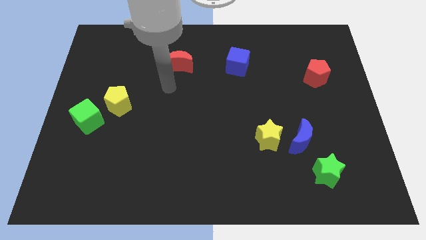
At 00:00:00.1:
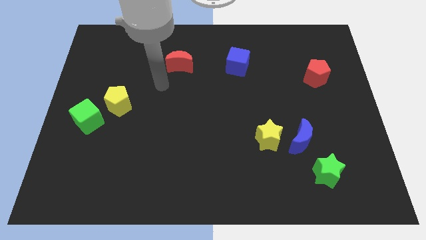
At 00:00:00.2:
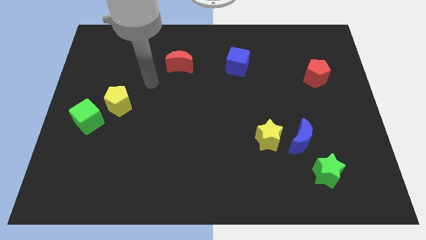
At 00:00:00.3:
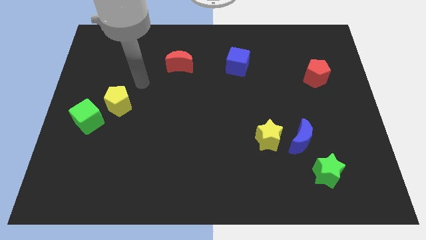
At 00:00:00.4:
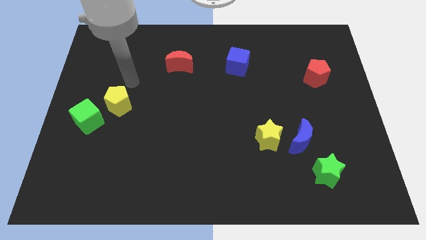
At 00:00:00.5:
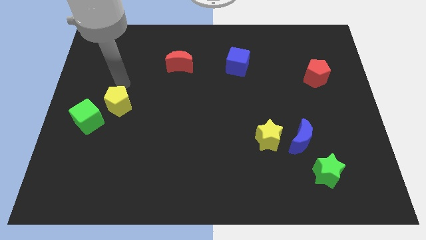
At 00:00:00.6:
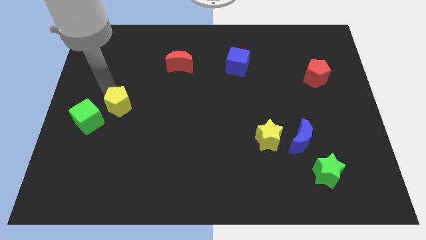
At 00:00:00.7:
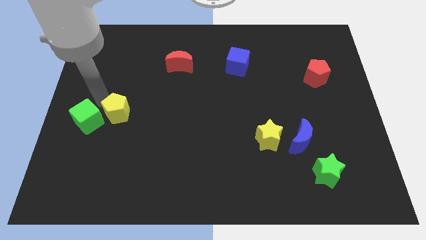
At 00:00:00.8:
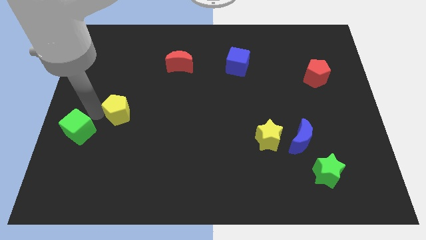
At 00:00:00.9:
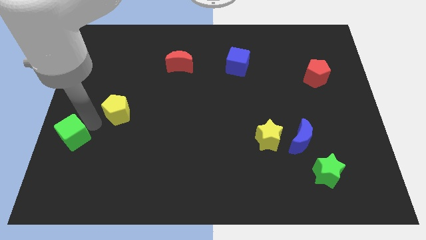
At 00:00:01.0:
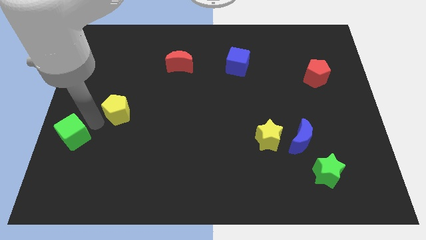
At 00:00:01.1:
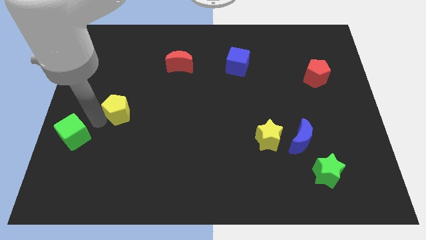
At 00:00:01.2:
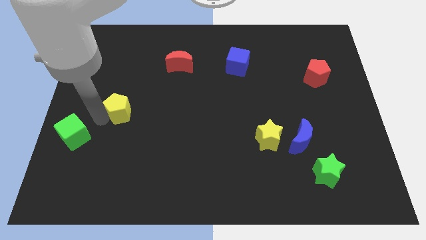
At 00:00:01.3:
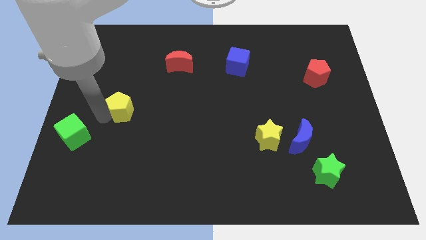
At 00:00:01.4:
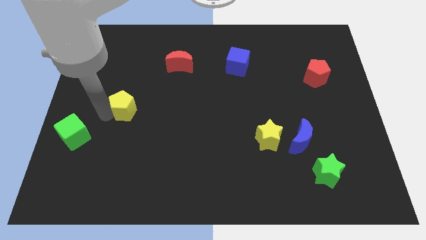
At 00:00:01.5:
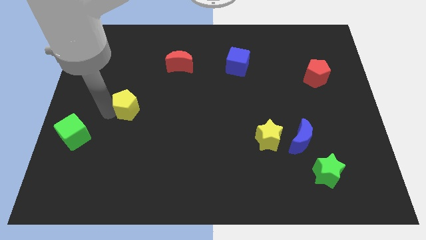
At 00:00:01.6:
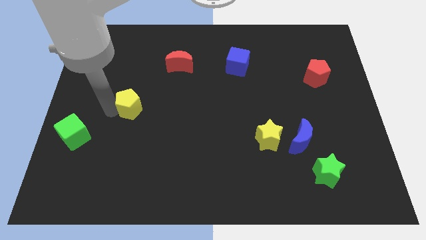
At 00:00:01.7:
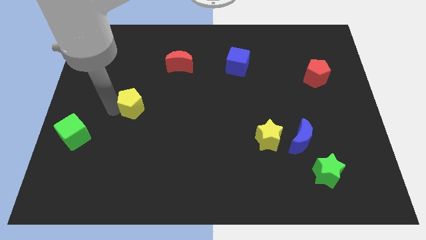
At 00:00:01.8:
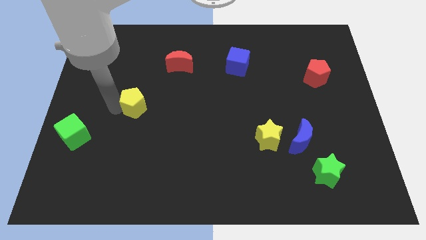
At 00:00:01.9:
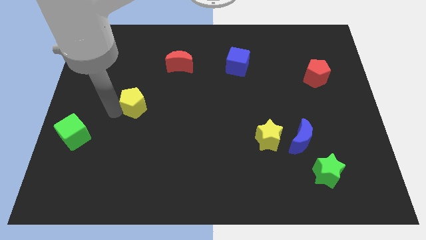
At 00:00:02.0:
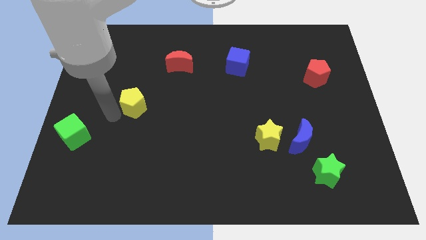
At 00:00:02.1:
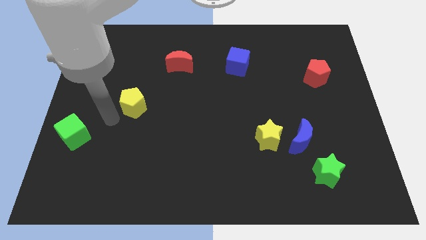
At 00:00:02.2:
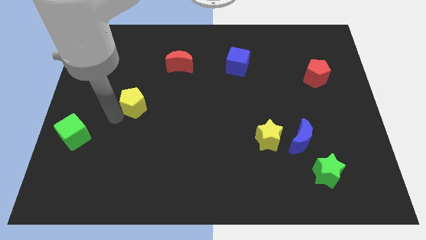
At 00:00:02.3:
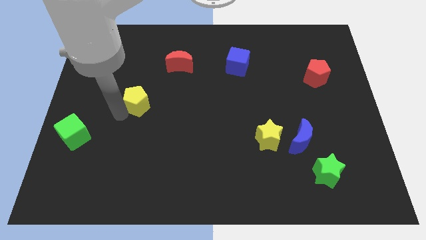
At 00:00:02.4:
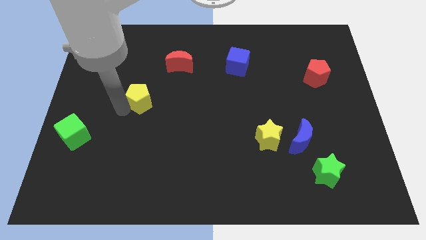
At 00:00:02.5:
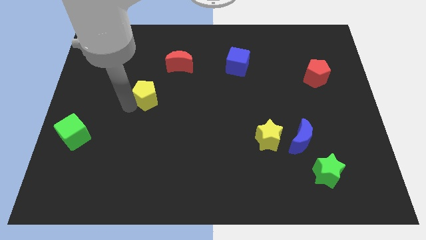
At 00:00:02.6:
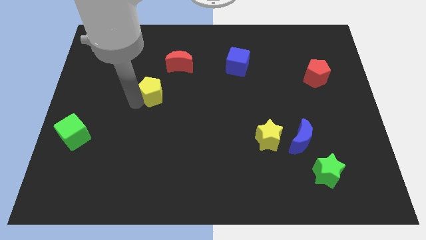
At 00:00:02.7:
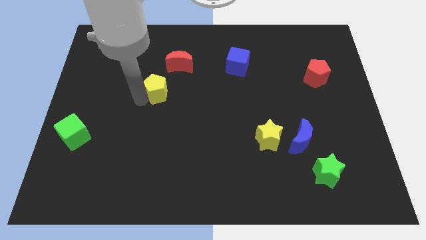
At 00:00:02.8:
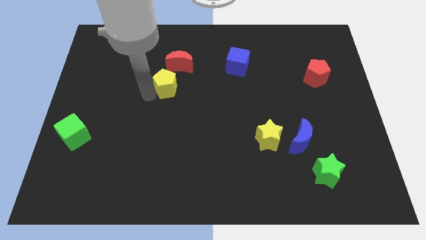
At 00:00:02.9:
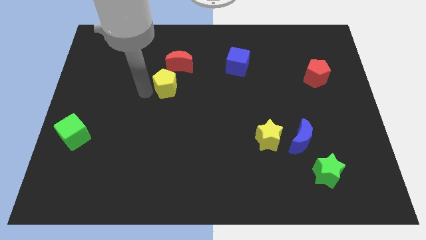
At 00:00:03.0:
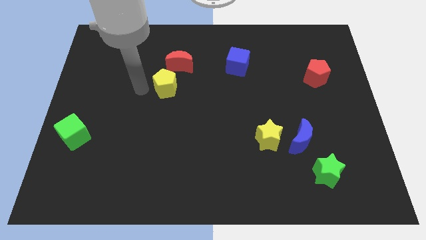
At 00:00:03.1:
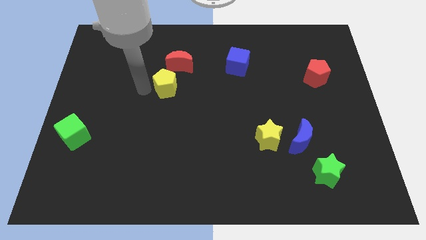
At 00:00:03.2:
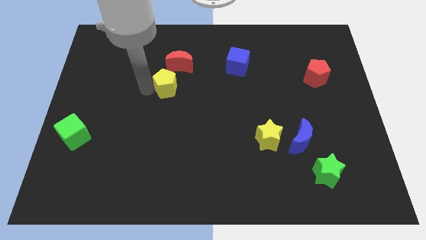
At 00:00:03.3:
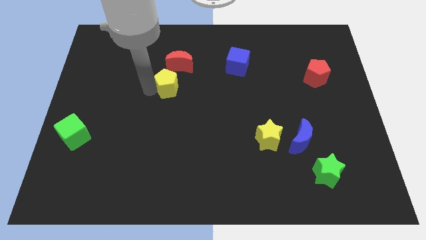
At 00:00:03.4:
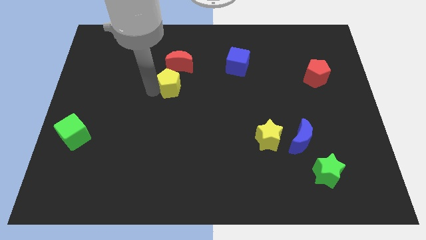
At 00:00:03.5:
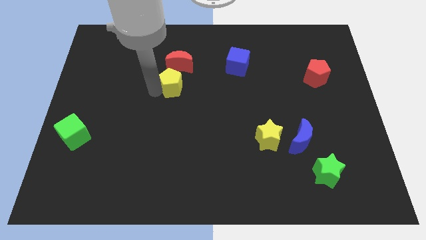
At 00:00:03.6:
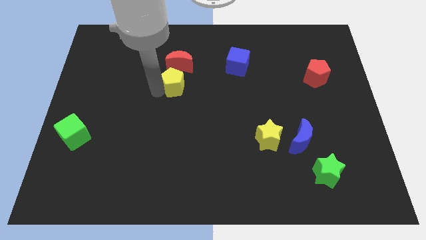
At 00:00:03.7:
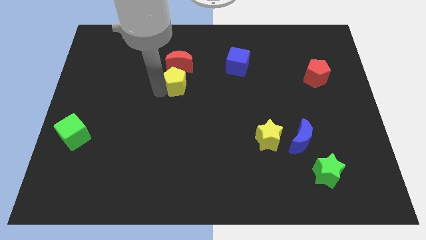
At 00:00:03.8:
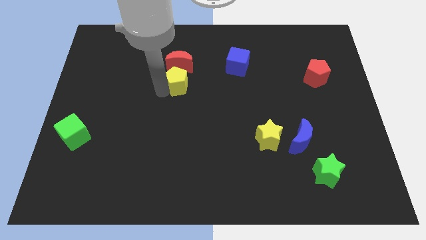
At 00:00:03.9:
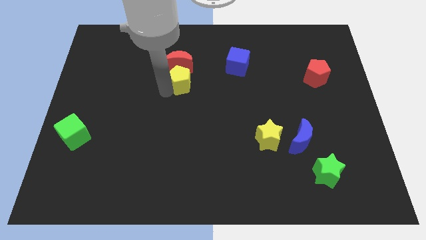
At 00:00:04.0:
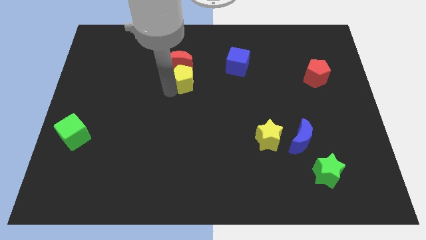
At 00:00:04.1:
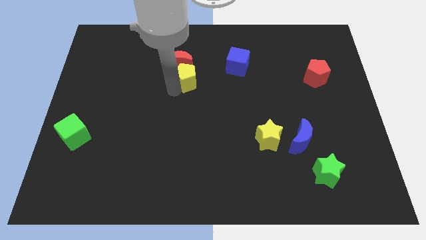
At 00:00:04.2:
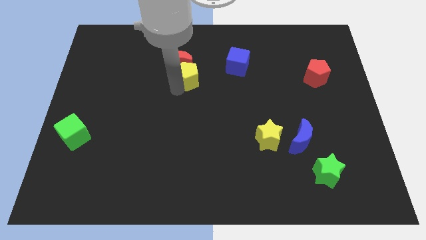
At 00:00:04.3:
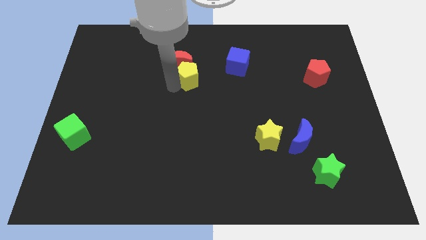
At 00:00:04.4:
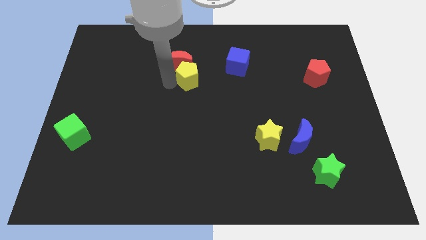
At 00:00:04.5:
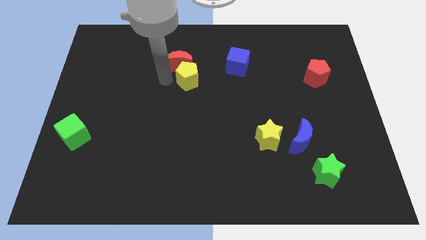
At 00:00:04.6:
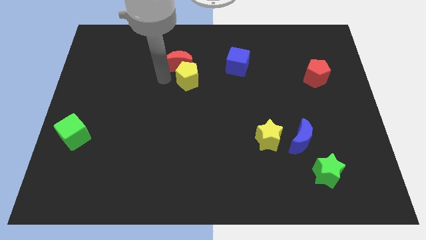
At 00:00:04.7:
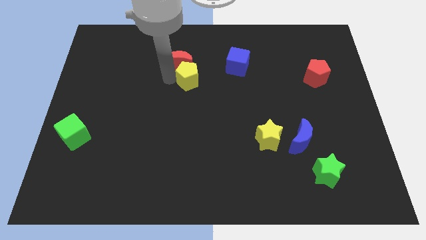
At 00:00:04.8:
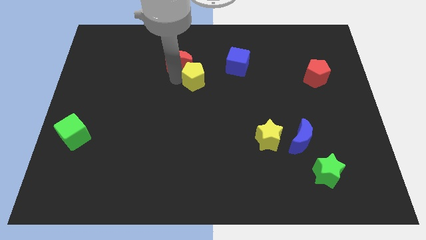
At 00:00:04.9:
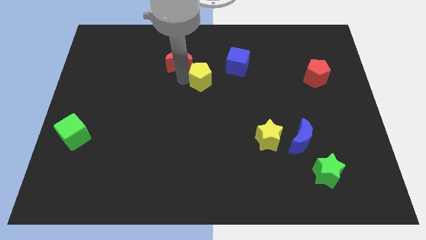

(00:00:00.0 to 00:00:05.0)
slide the yellow pentagon diagonally down and to the left of the blue cube

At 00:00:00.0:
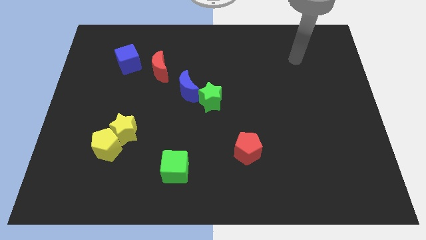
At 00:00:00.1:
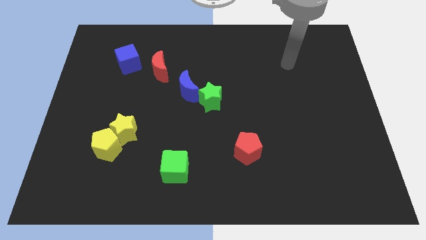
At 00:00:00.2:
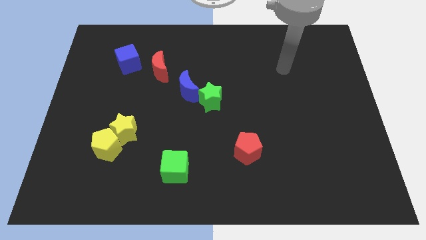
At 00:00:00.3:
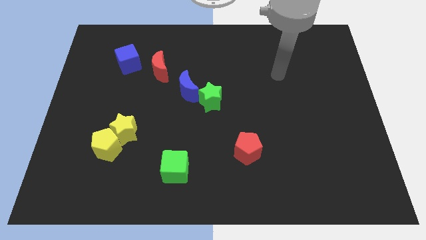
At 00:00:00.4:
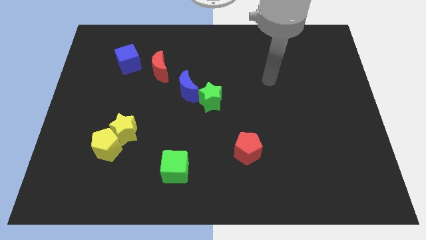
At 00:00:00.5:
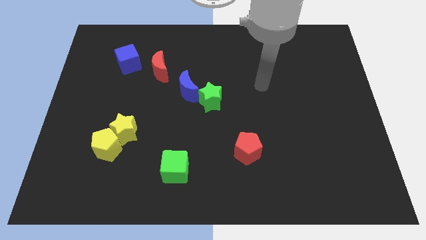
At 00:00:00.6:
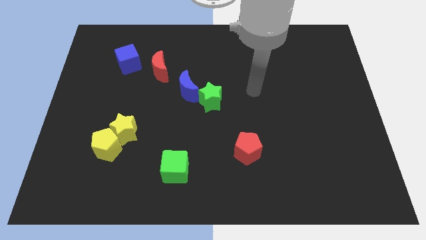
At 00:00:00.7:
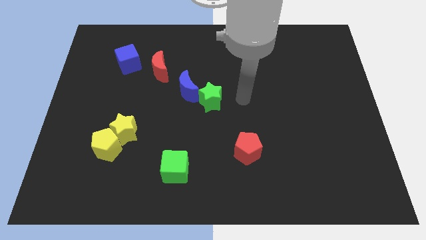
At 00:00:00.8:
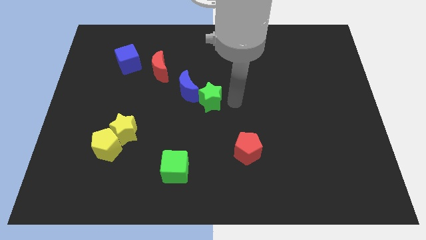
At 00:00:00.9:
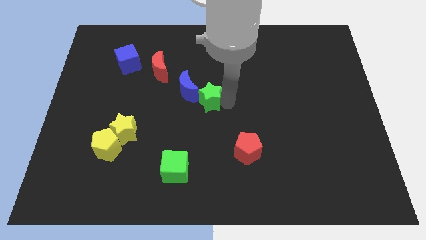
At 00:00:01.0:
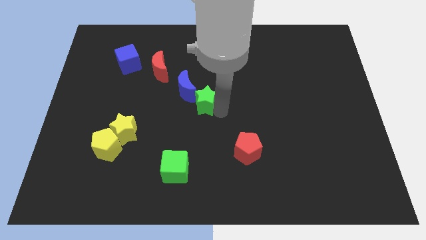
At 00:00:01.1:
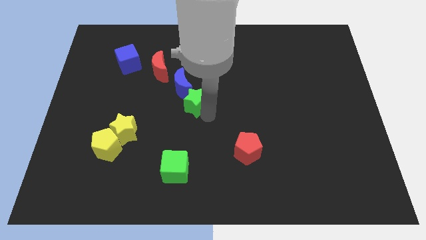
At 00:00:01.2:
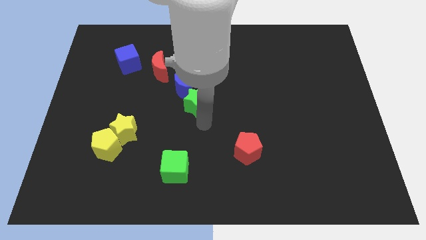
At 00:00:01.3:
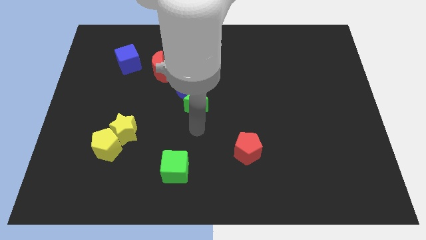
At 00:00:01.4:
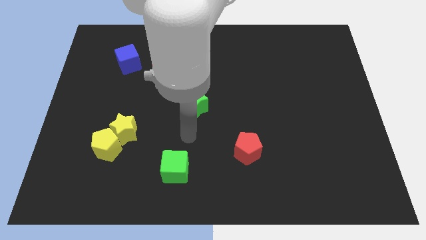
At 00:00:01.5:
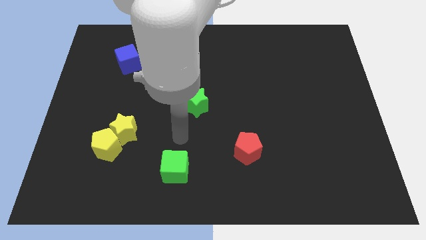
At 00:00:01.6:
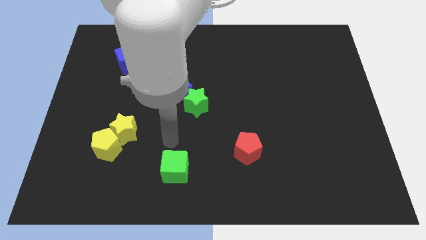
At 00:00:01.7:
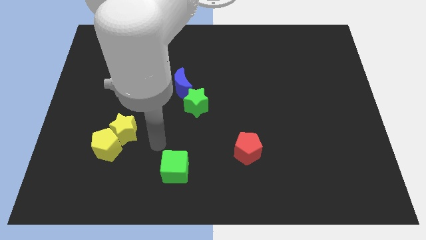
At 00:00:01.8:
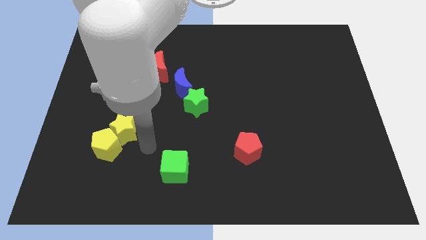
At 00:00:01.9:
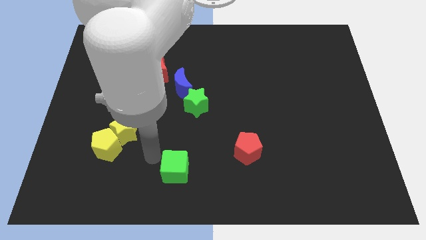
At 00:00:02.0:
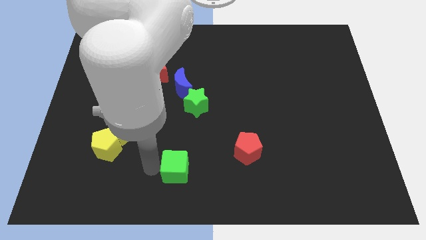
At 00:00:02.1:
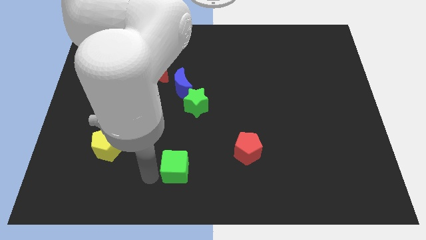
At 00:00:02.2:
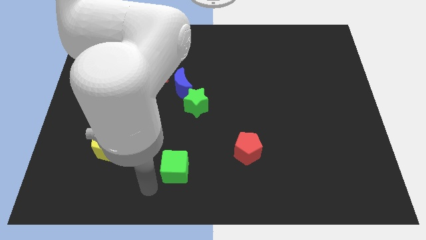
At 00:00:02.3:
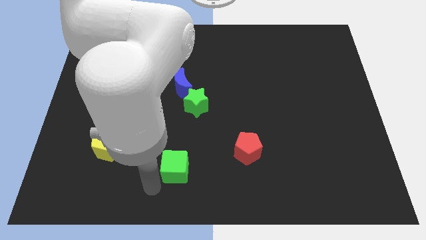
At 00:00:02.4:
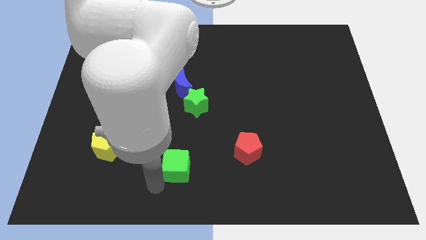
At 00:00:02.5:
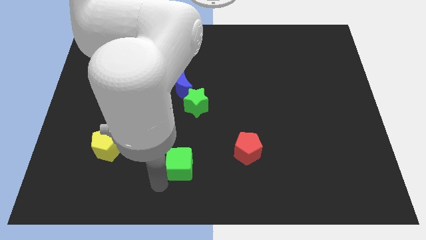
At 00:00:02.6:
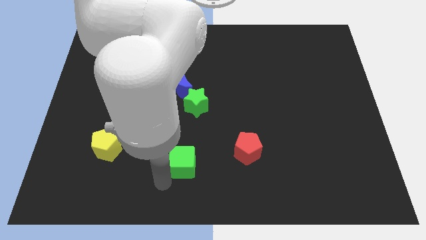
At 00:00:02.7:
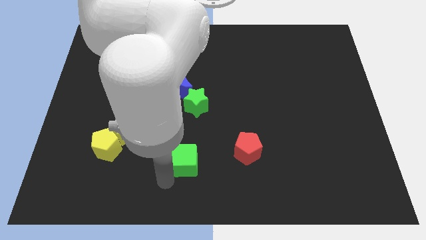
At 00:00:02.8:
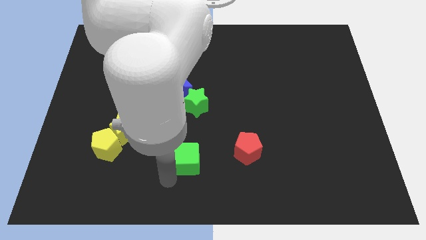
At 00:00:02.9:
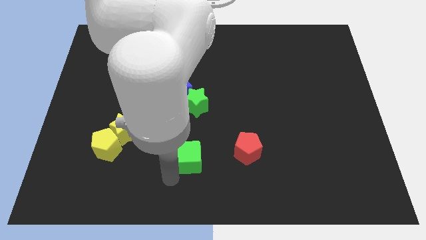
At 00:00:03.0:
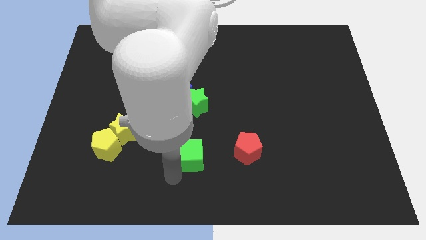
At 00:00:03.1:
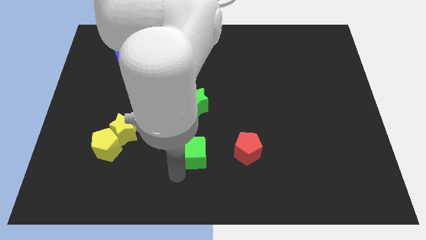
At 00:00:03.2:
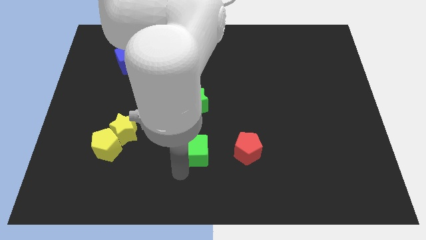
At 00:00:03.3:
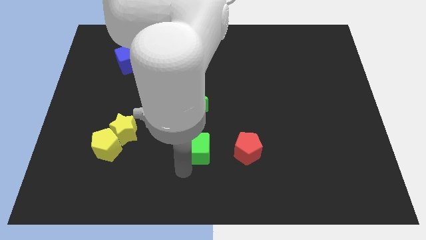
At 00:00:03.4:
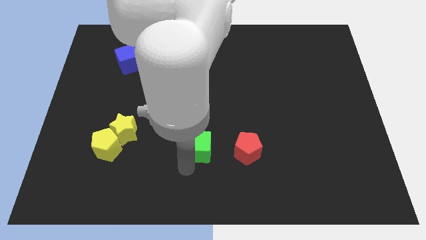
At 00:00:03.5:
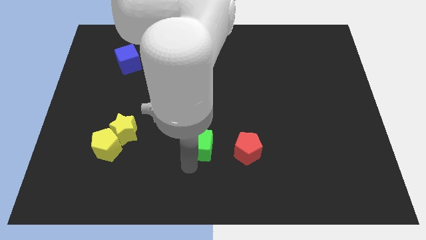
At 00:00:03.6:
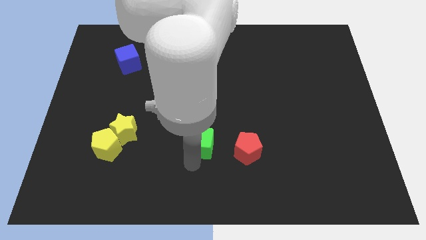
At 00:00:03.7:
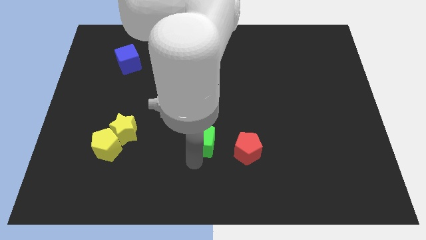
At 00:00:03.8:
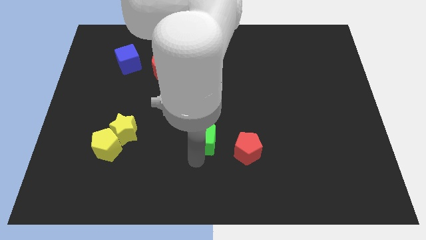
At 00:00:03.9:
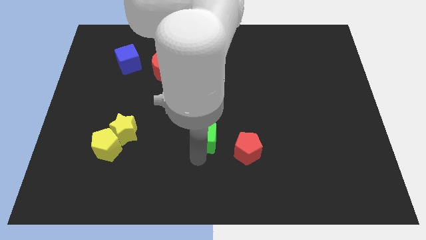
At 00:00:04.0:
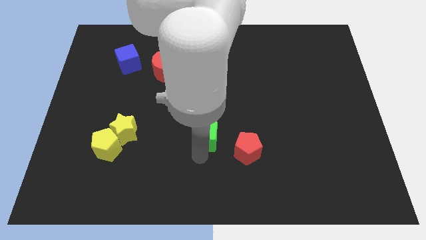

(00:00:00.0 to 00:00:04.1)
slide the green cube to the bottom right side of the green star
